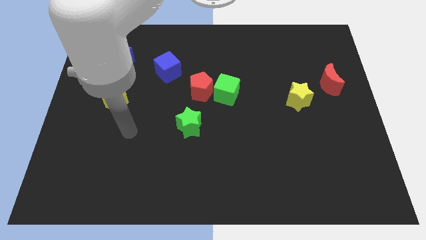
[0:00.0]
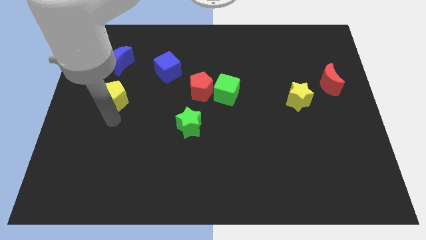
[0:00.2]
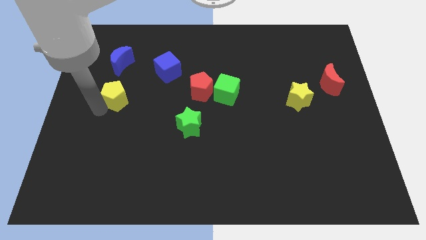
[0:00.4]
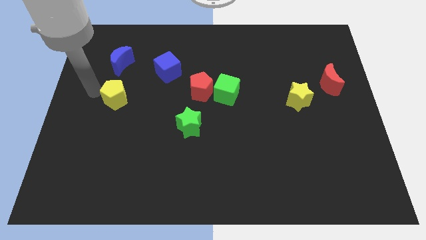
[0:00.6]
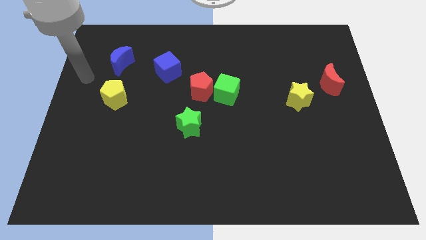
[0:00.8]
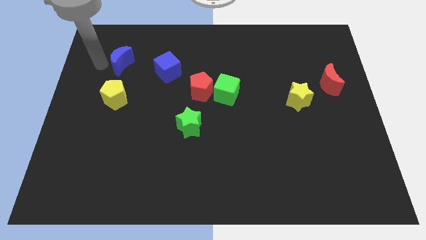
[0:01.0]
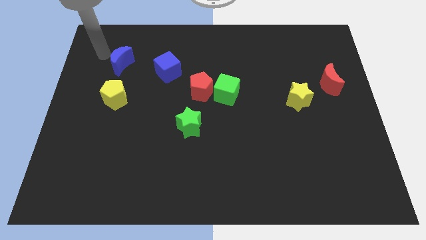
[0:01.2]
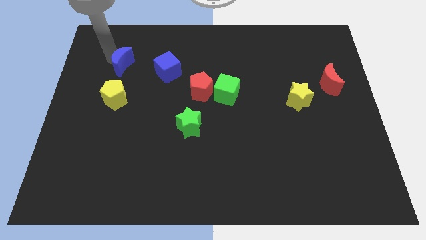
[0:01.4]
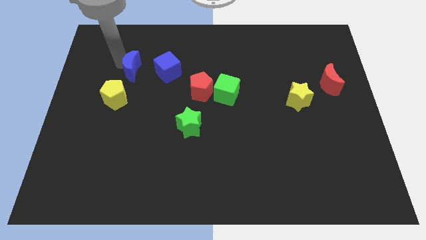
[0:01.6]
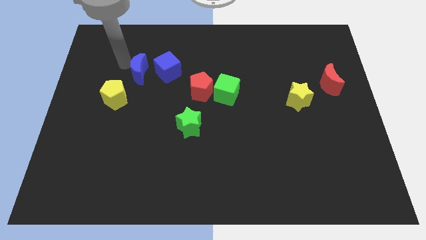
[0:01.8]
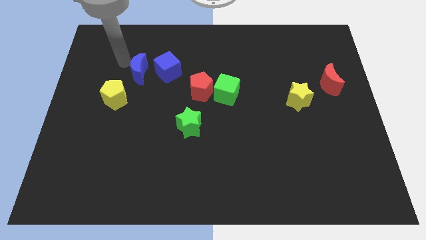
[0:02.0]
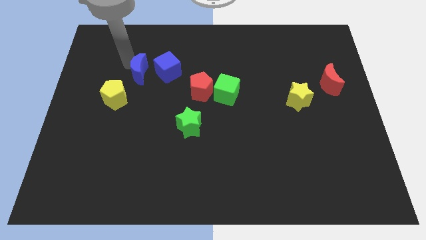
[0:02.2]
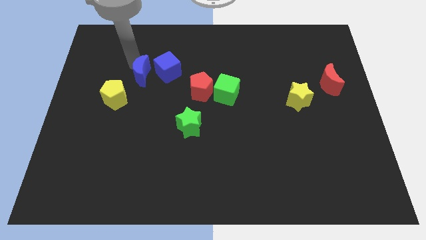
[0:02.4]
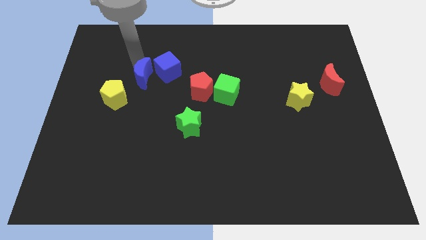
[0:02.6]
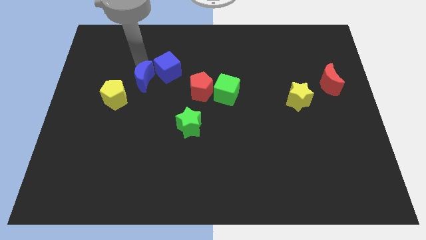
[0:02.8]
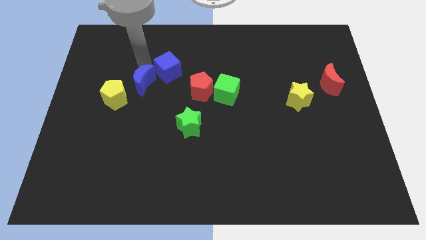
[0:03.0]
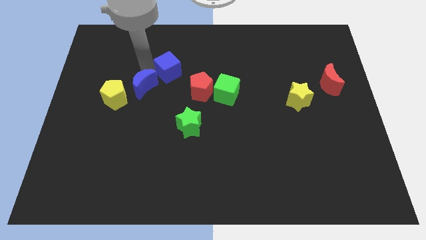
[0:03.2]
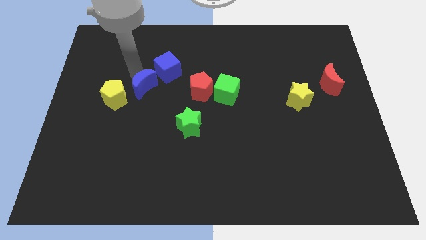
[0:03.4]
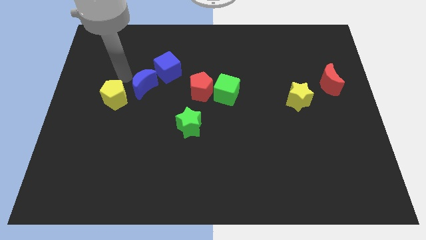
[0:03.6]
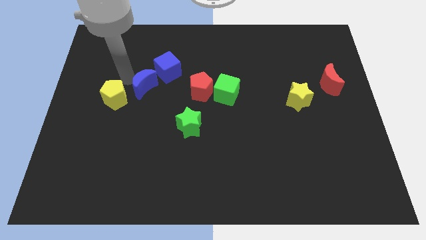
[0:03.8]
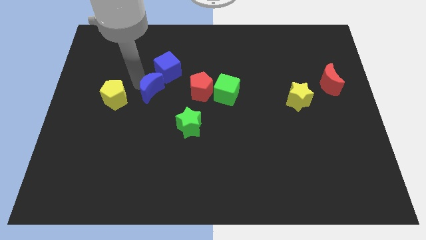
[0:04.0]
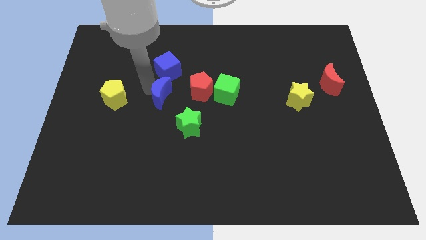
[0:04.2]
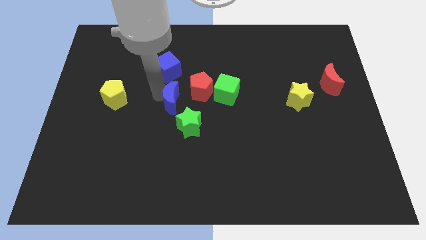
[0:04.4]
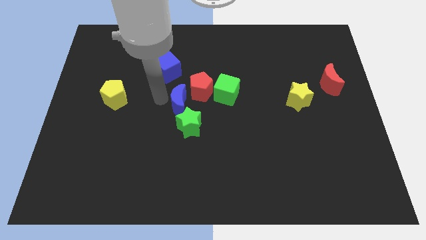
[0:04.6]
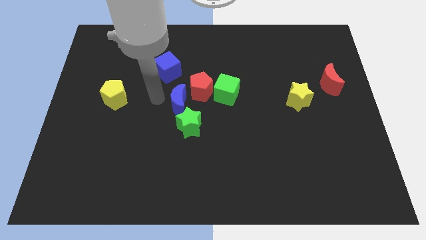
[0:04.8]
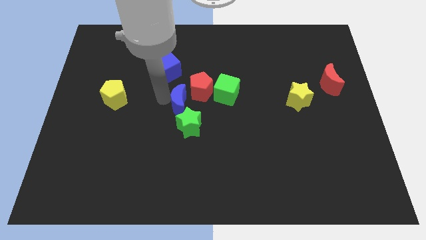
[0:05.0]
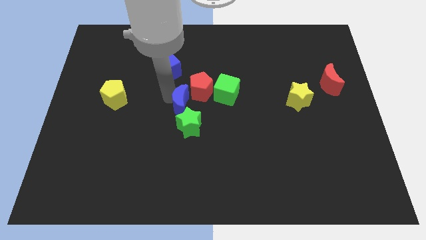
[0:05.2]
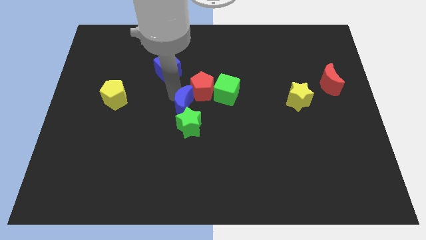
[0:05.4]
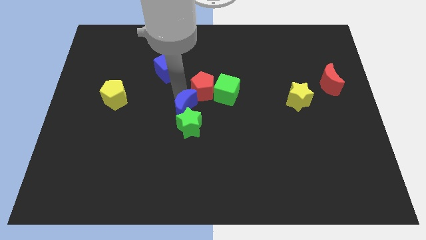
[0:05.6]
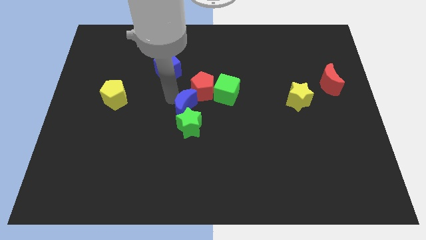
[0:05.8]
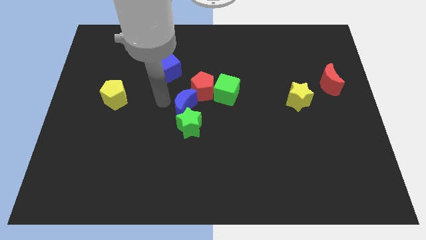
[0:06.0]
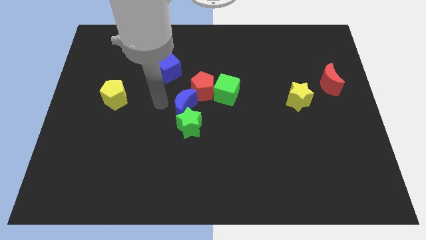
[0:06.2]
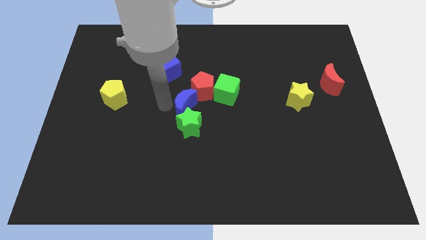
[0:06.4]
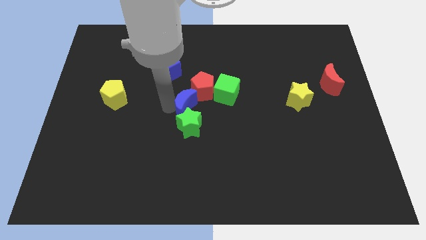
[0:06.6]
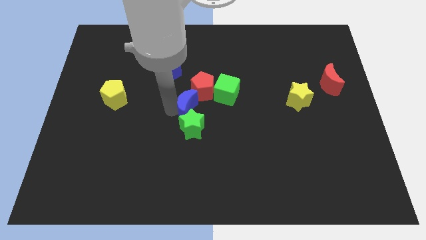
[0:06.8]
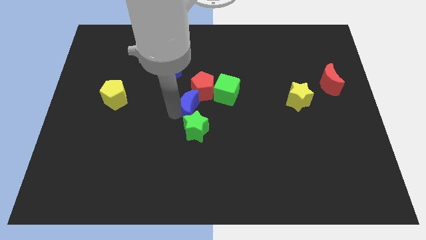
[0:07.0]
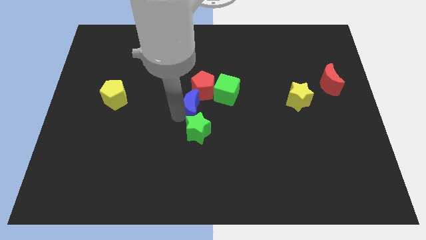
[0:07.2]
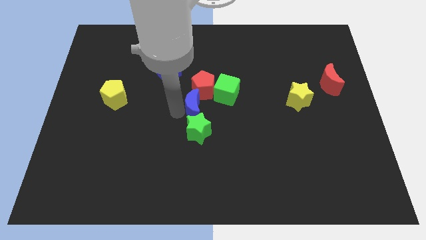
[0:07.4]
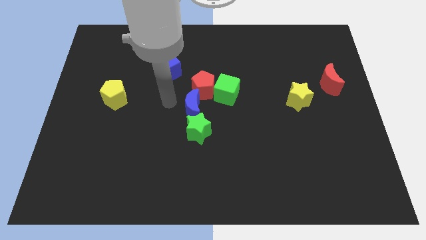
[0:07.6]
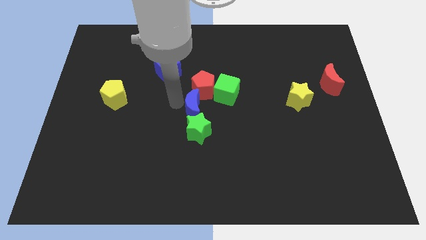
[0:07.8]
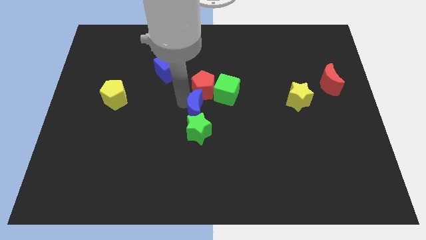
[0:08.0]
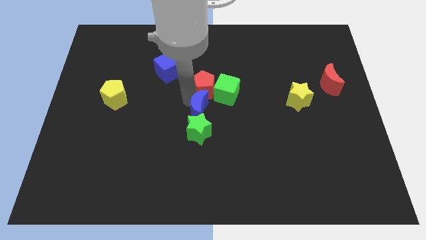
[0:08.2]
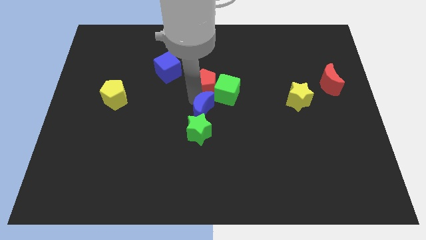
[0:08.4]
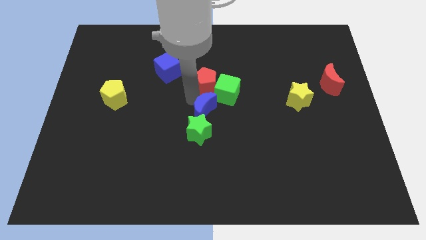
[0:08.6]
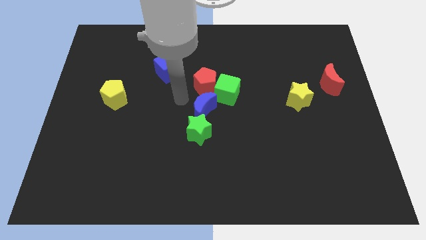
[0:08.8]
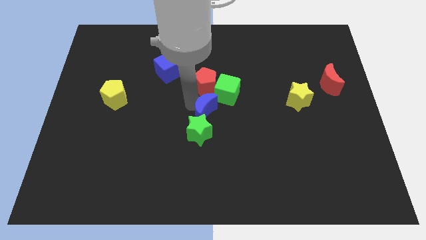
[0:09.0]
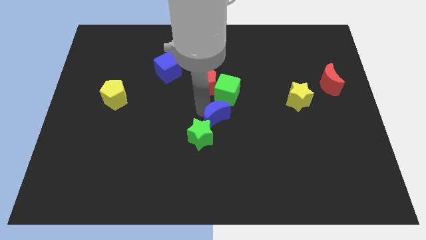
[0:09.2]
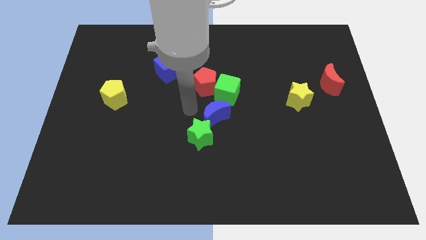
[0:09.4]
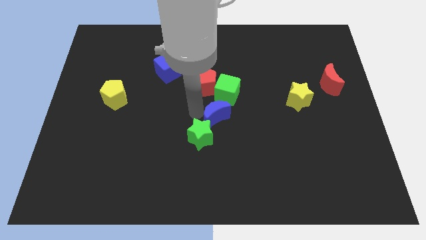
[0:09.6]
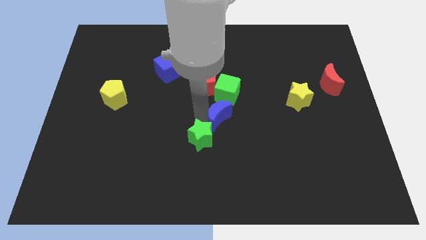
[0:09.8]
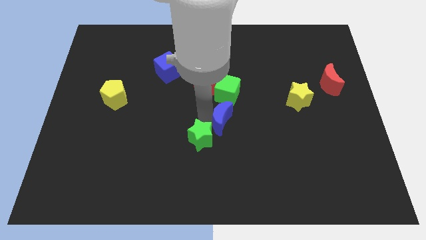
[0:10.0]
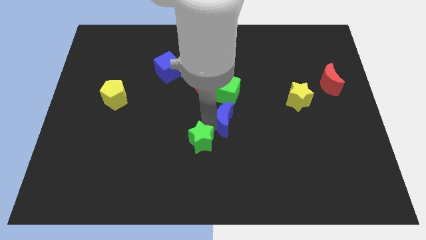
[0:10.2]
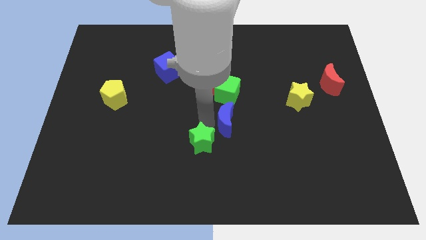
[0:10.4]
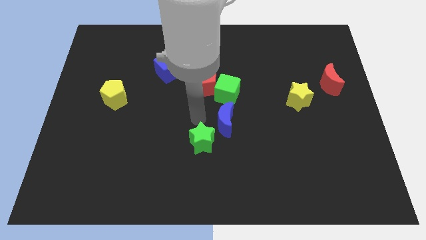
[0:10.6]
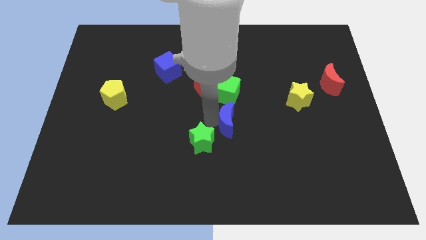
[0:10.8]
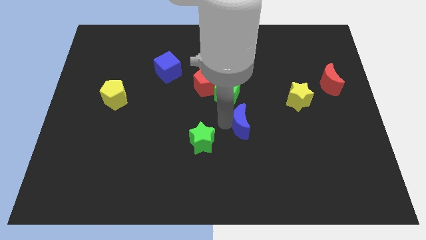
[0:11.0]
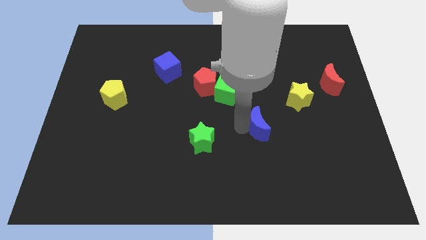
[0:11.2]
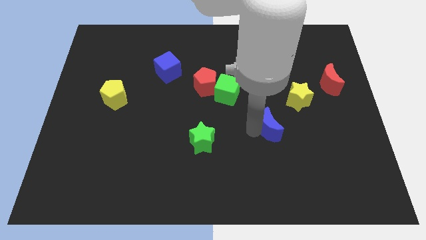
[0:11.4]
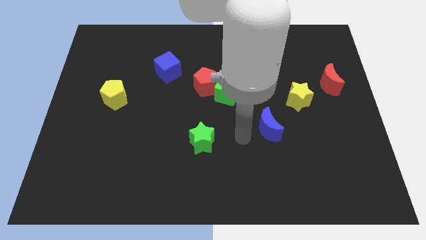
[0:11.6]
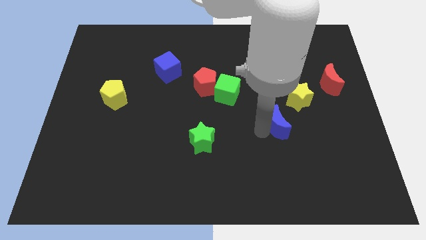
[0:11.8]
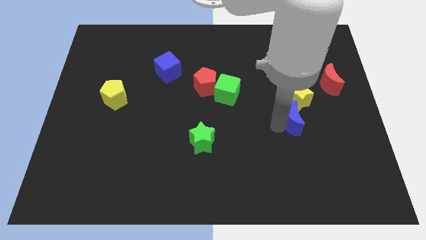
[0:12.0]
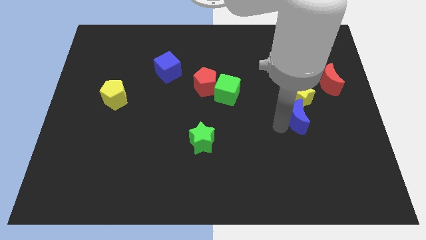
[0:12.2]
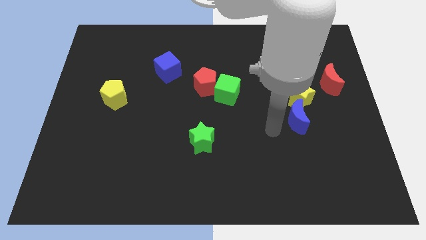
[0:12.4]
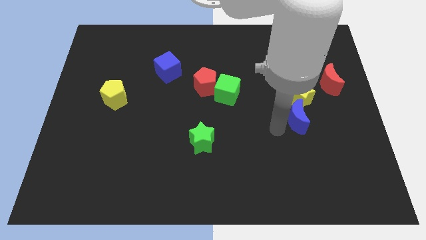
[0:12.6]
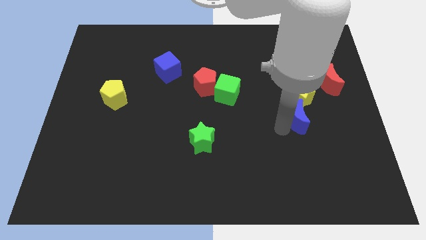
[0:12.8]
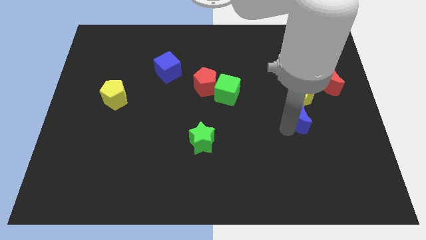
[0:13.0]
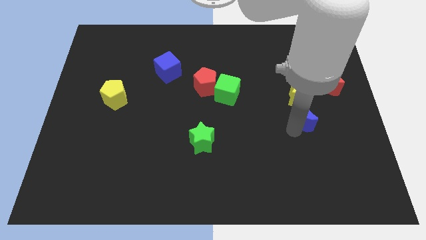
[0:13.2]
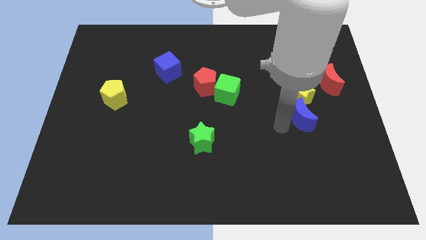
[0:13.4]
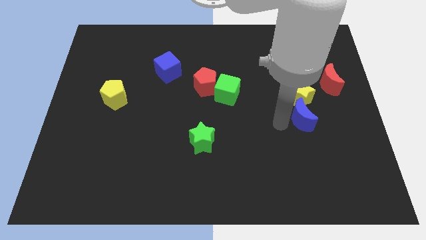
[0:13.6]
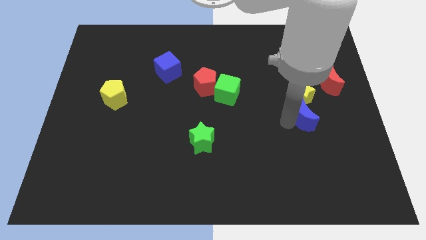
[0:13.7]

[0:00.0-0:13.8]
slide the blue moon to the bottom right side of the yellow star
